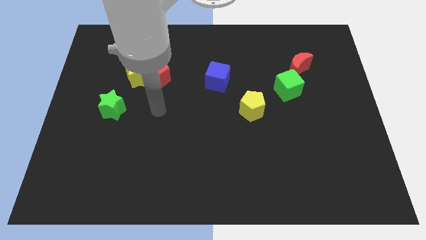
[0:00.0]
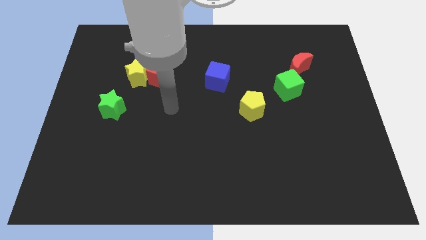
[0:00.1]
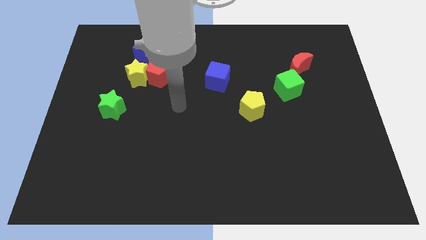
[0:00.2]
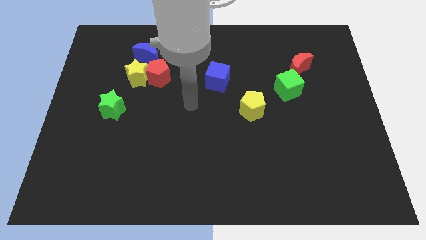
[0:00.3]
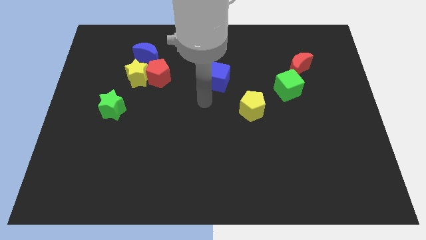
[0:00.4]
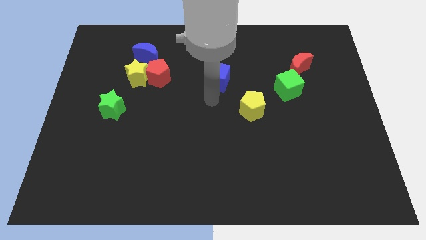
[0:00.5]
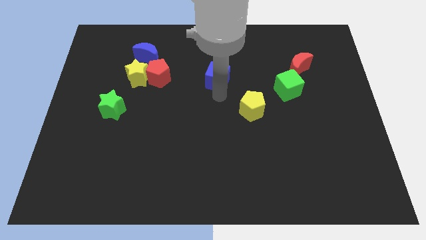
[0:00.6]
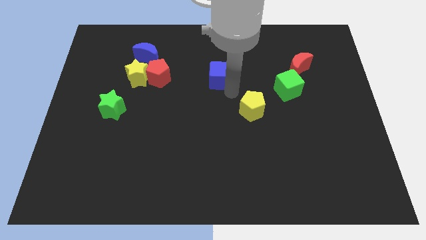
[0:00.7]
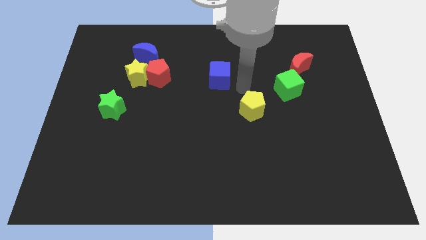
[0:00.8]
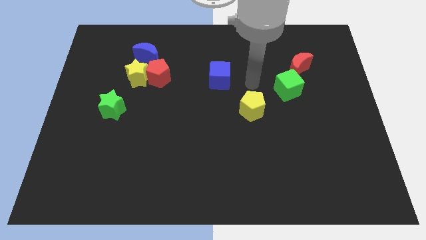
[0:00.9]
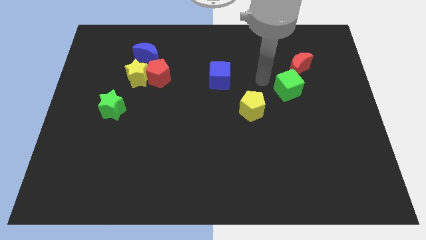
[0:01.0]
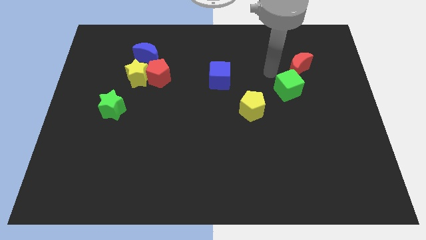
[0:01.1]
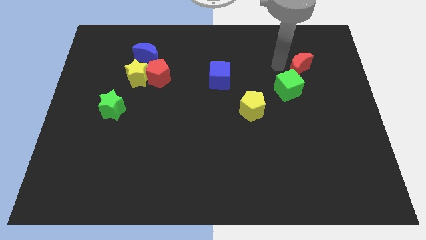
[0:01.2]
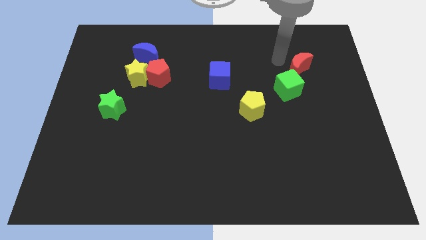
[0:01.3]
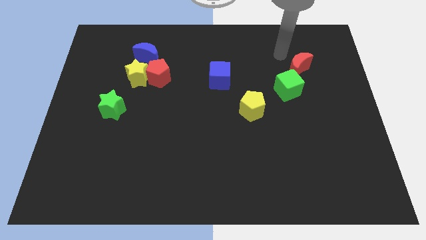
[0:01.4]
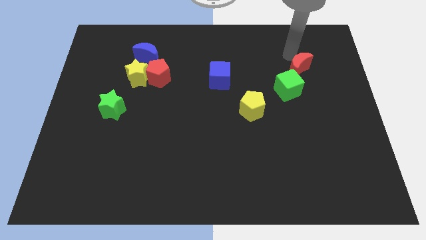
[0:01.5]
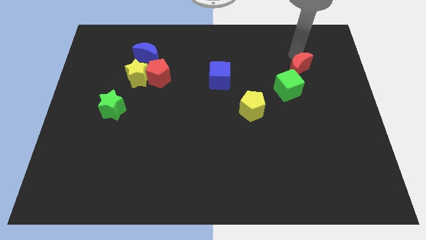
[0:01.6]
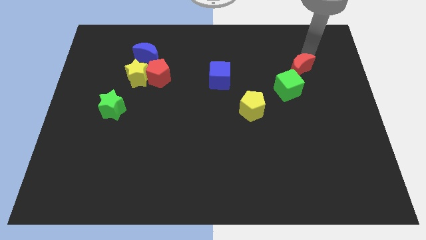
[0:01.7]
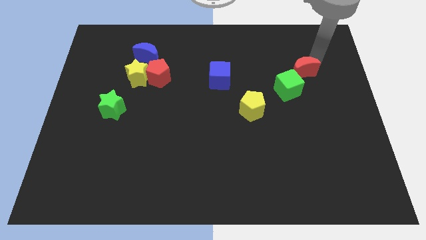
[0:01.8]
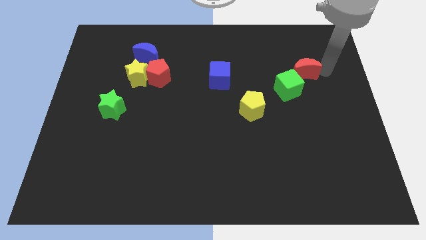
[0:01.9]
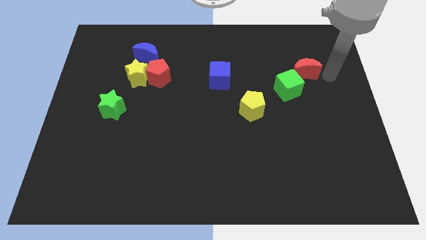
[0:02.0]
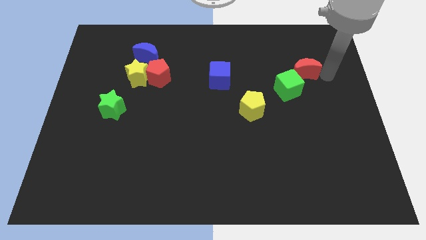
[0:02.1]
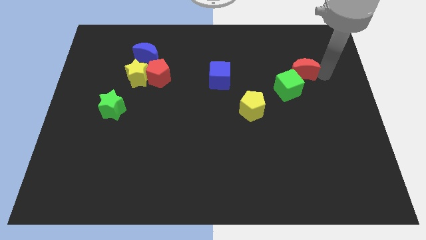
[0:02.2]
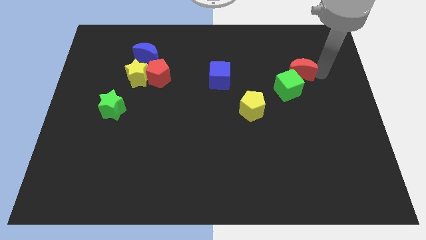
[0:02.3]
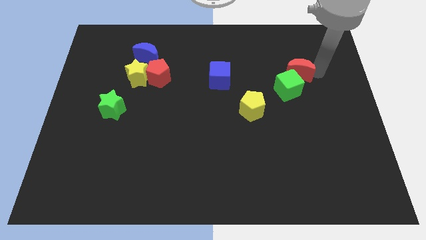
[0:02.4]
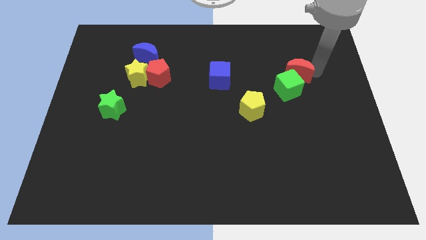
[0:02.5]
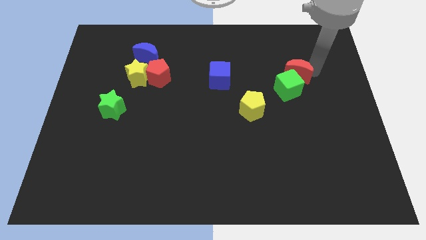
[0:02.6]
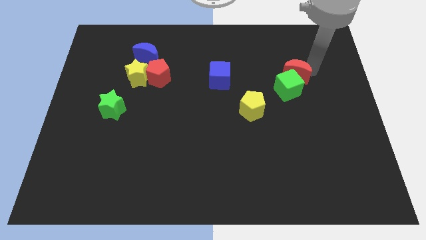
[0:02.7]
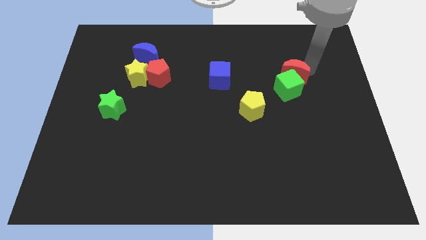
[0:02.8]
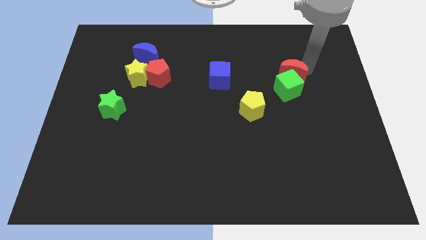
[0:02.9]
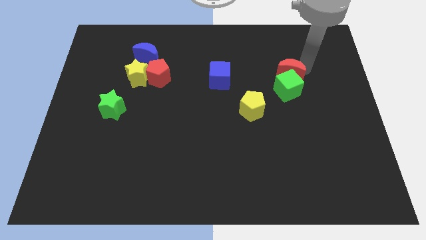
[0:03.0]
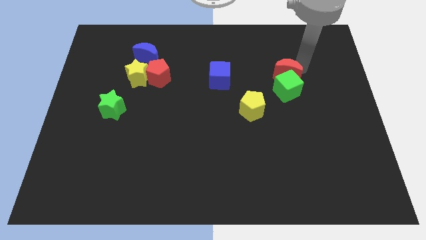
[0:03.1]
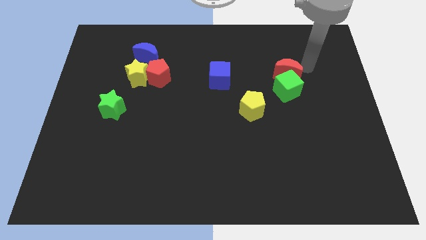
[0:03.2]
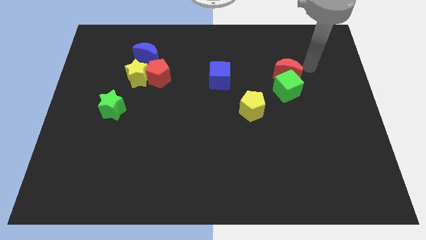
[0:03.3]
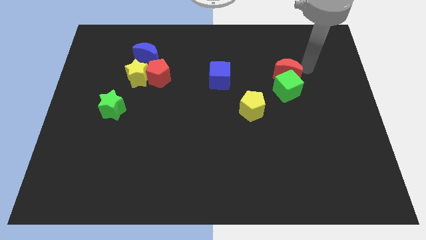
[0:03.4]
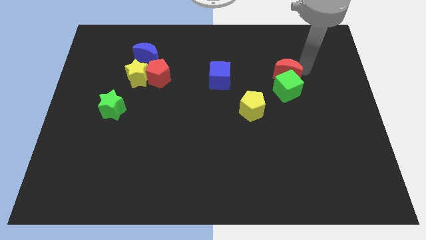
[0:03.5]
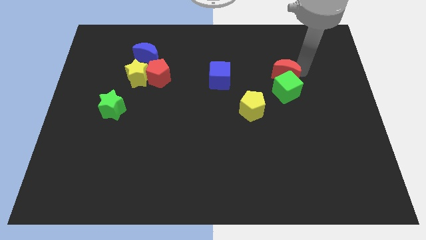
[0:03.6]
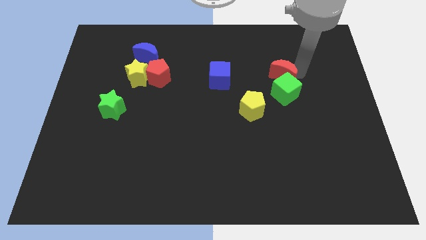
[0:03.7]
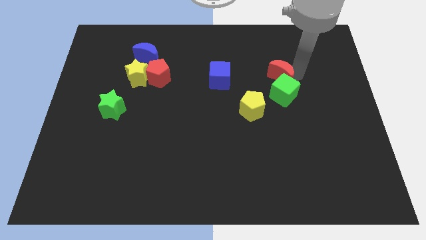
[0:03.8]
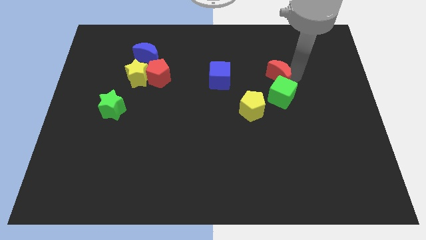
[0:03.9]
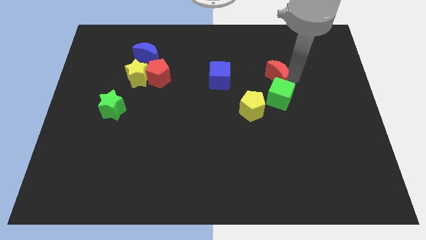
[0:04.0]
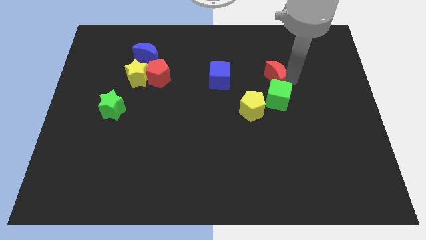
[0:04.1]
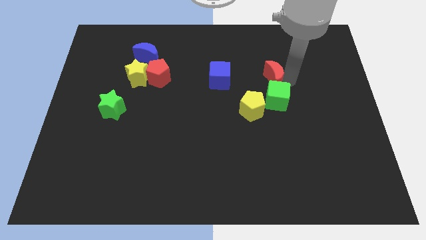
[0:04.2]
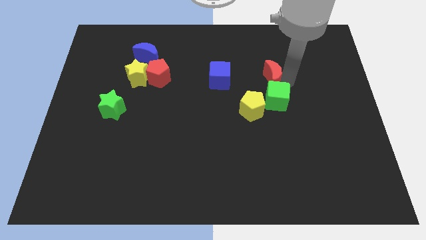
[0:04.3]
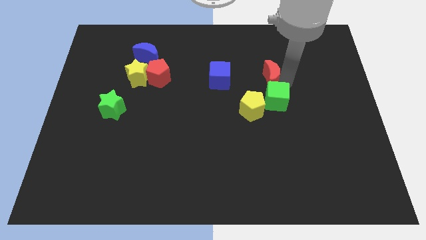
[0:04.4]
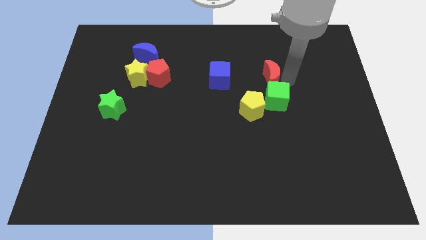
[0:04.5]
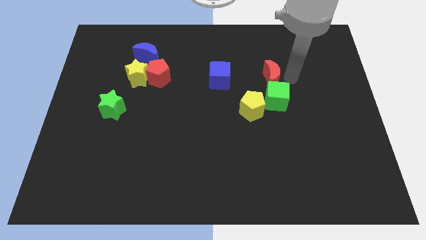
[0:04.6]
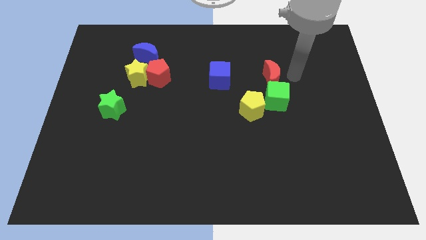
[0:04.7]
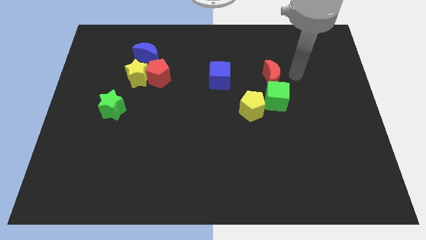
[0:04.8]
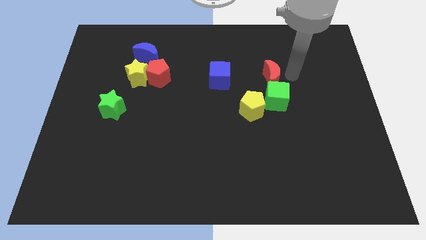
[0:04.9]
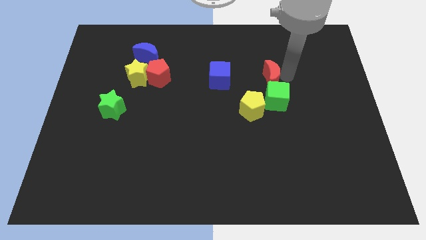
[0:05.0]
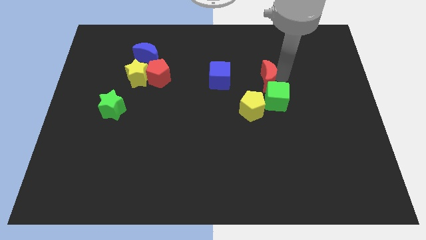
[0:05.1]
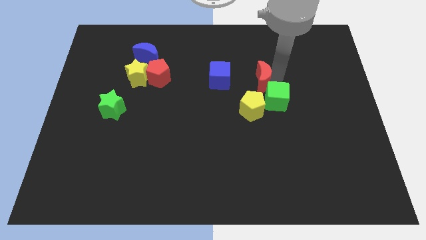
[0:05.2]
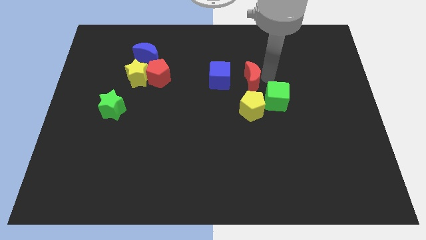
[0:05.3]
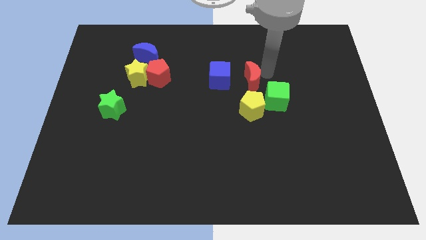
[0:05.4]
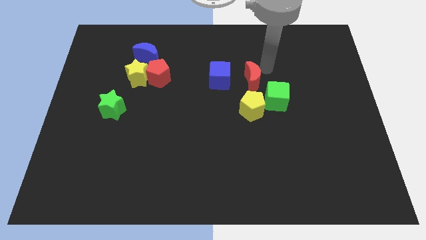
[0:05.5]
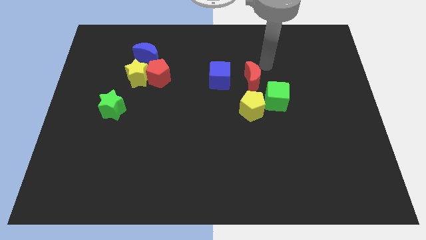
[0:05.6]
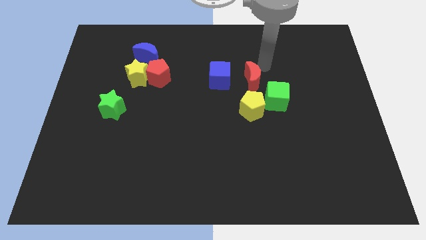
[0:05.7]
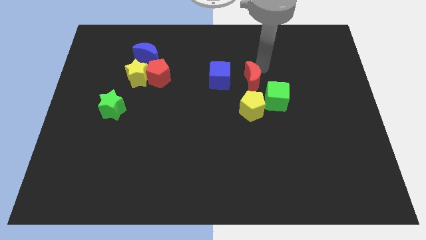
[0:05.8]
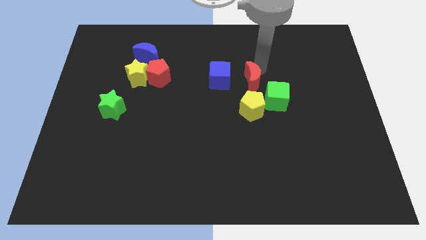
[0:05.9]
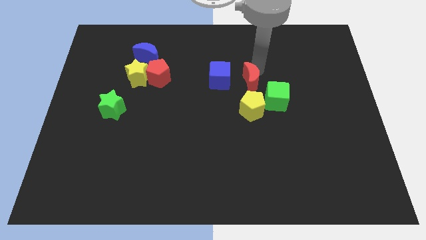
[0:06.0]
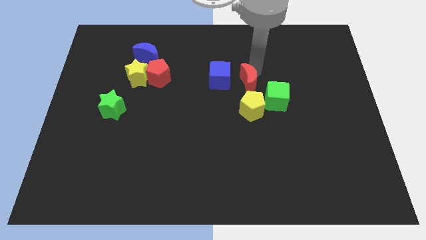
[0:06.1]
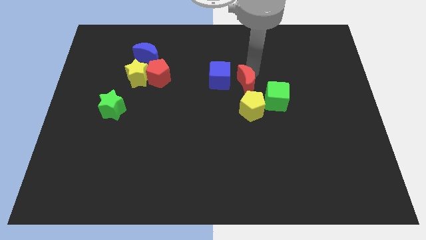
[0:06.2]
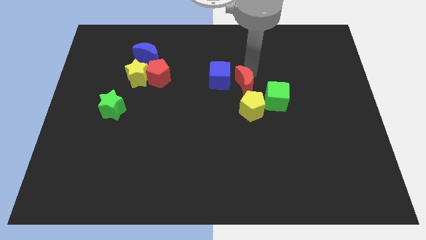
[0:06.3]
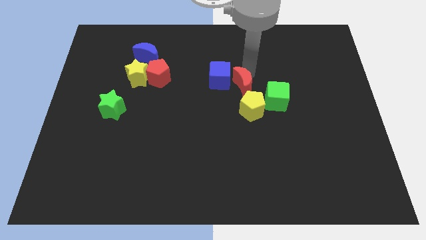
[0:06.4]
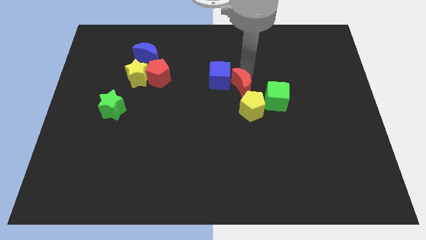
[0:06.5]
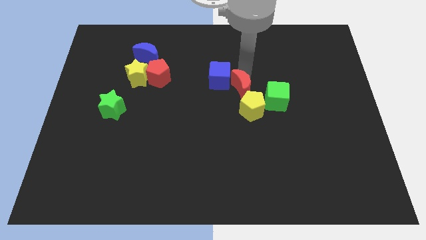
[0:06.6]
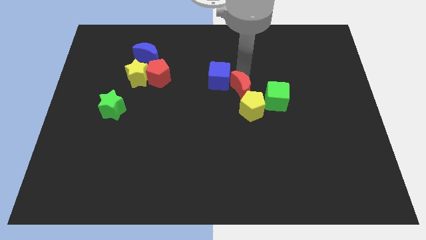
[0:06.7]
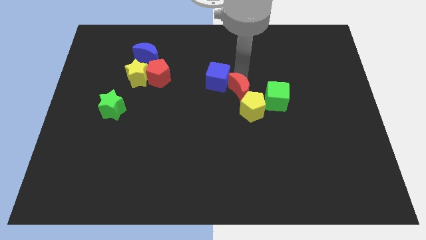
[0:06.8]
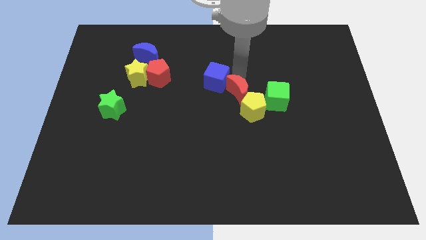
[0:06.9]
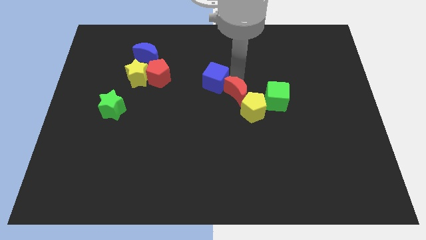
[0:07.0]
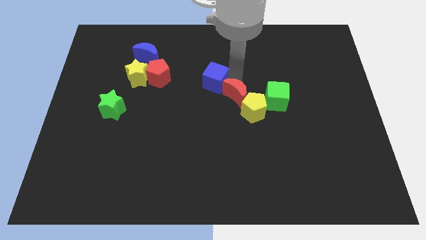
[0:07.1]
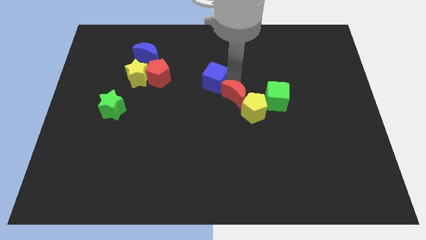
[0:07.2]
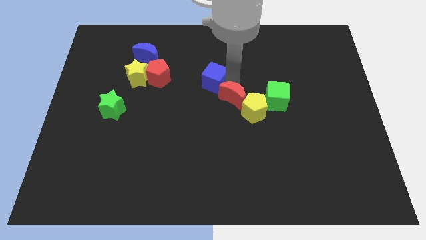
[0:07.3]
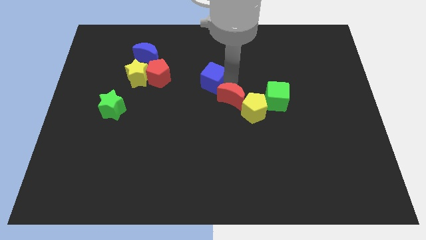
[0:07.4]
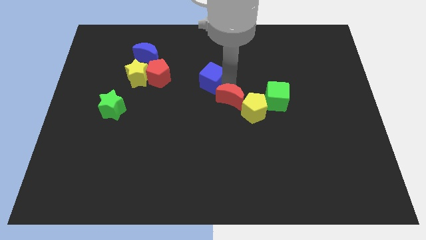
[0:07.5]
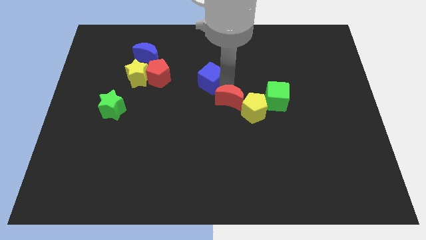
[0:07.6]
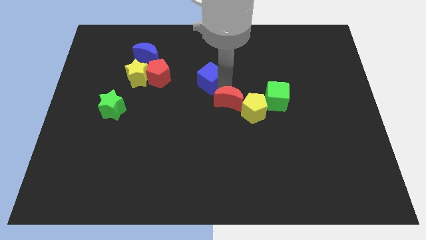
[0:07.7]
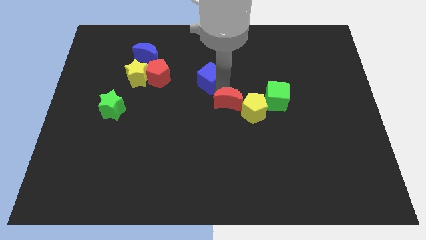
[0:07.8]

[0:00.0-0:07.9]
slide the red moon diagonally down and left

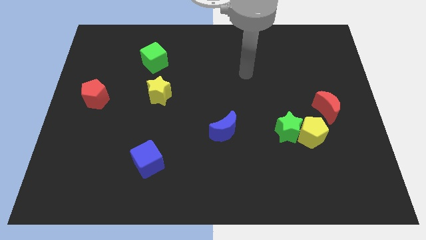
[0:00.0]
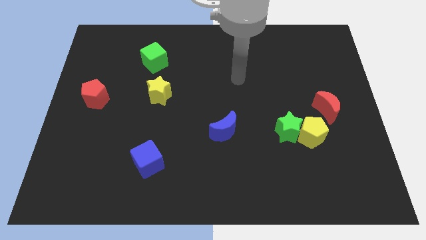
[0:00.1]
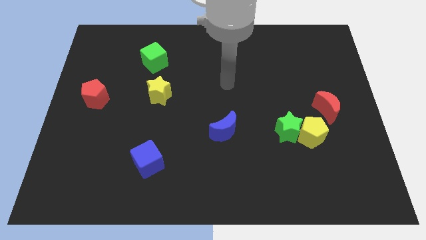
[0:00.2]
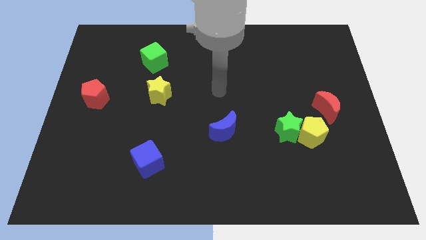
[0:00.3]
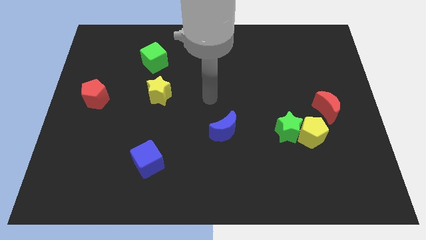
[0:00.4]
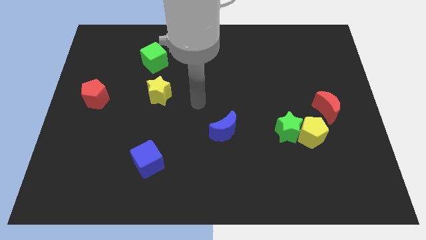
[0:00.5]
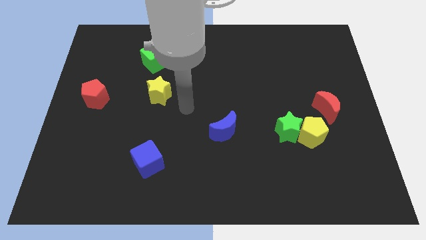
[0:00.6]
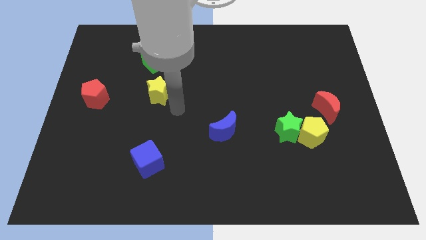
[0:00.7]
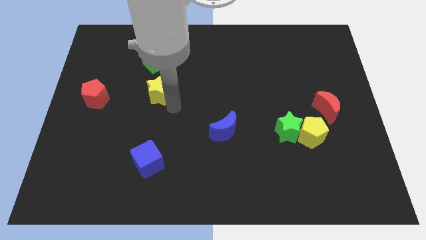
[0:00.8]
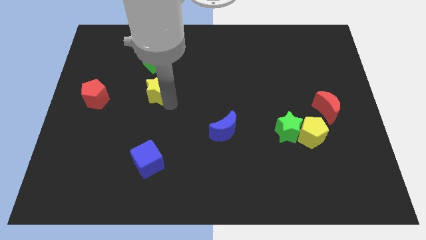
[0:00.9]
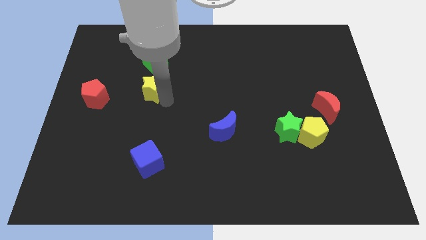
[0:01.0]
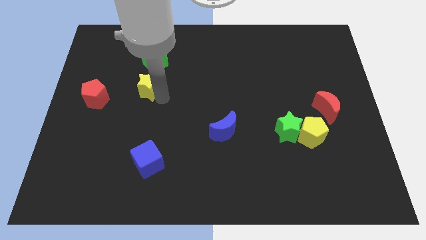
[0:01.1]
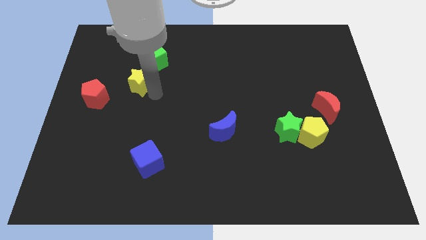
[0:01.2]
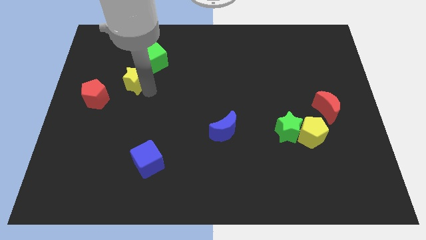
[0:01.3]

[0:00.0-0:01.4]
slightly slide the yellow star upwards and then left
